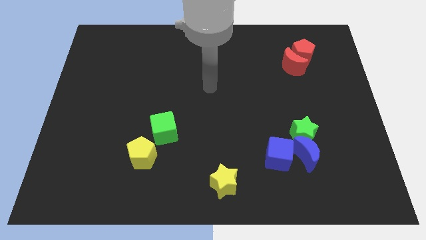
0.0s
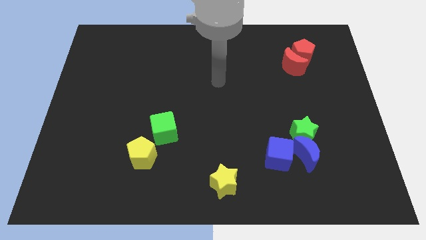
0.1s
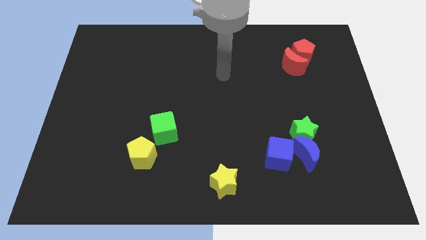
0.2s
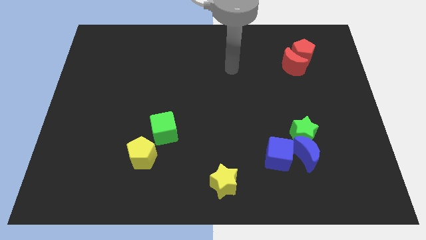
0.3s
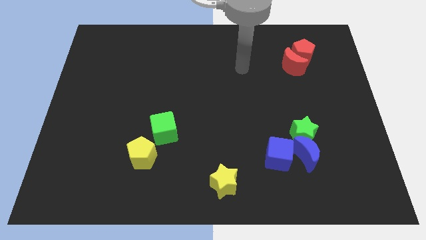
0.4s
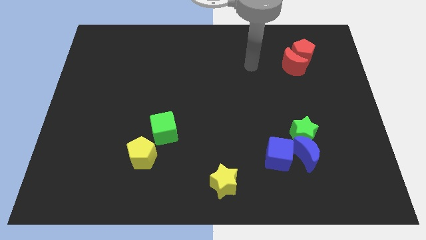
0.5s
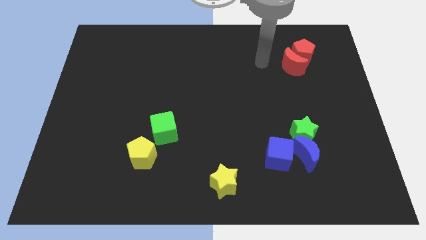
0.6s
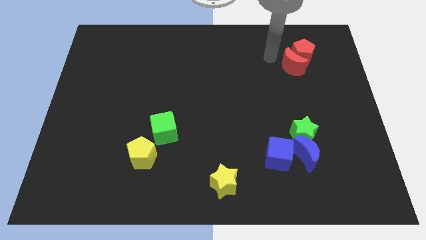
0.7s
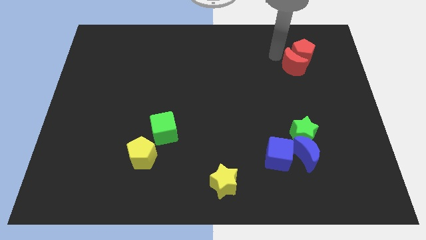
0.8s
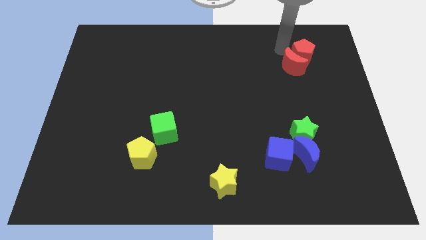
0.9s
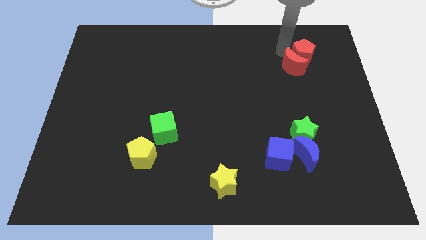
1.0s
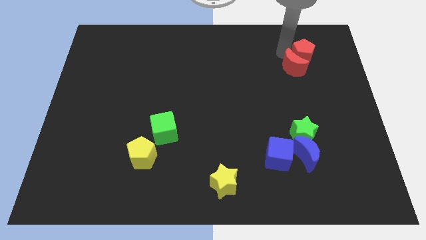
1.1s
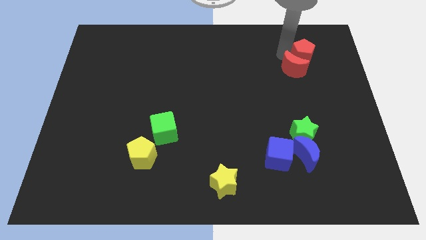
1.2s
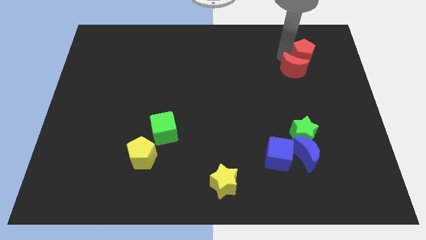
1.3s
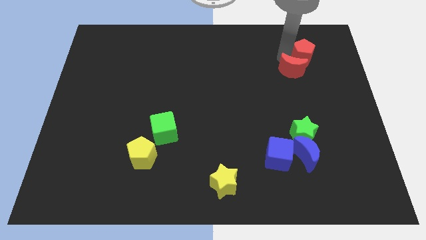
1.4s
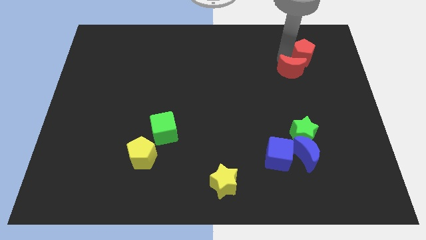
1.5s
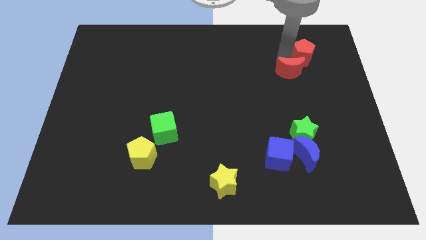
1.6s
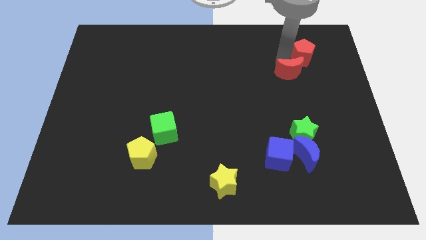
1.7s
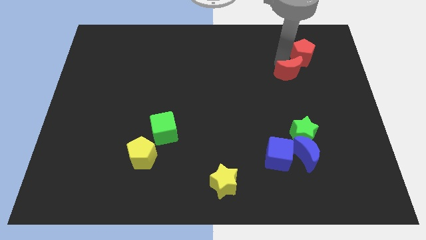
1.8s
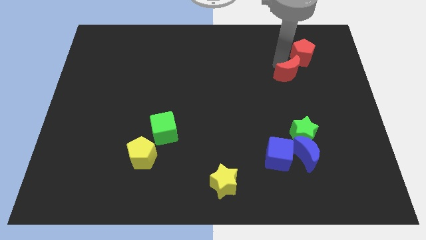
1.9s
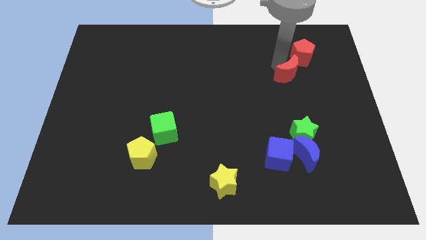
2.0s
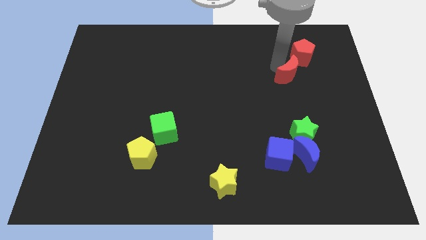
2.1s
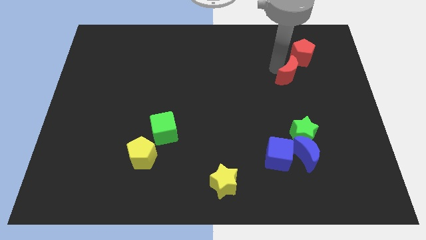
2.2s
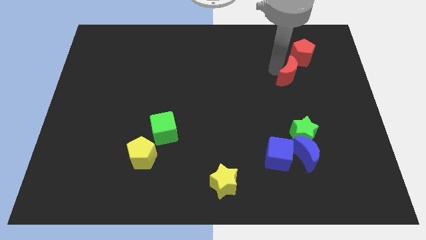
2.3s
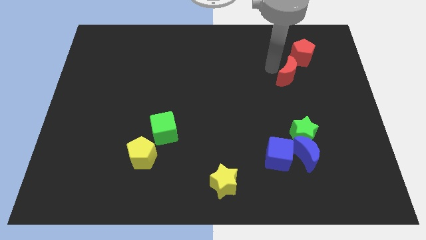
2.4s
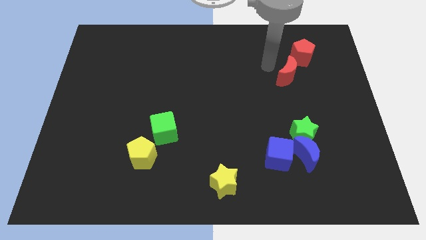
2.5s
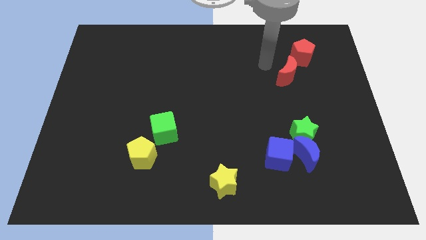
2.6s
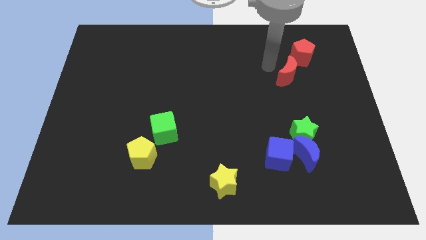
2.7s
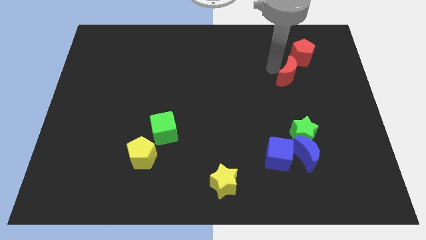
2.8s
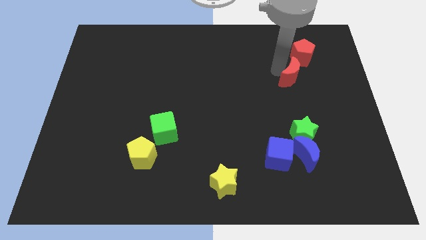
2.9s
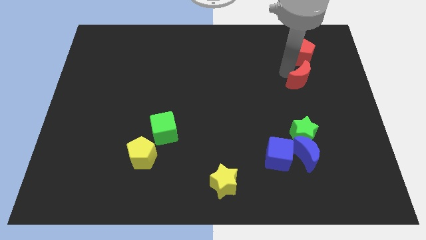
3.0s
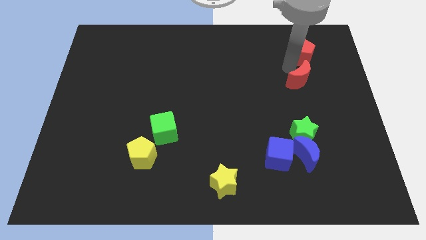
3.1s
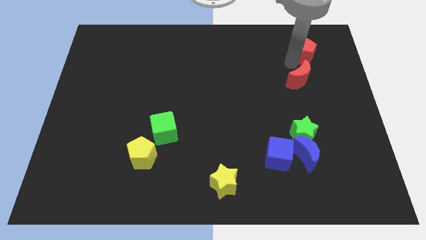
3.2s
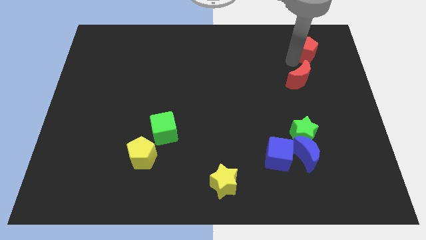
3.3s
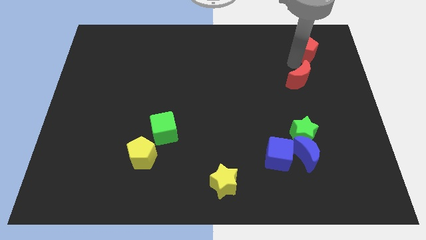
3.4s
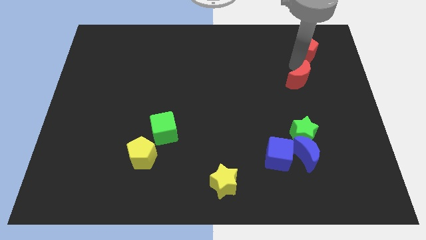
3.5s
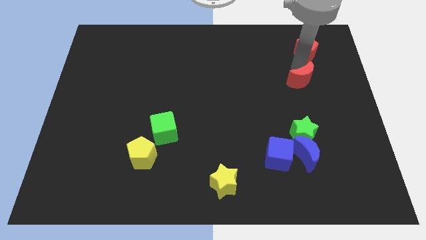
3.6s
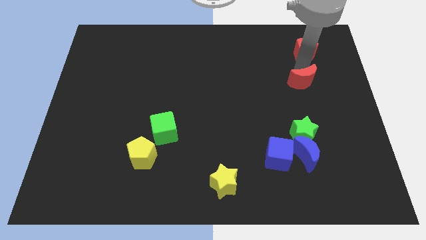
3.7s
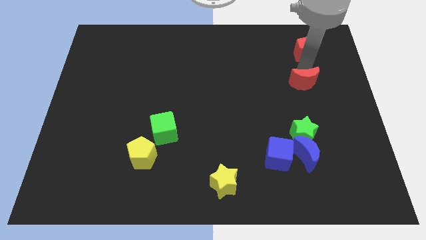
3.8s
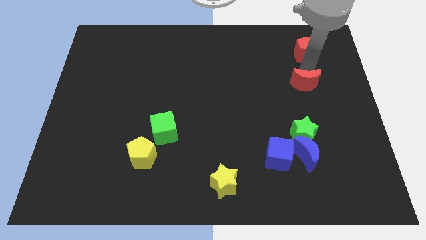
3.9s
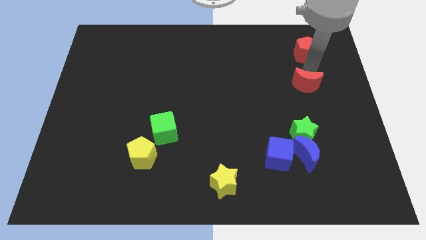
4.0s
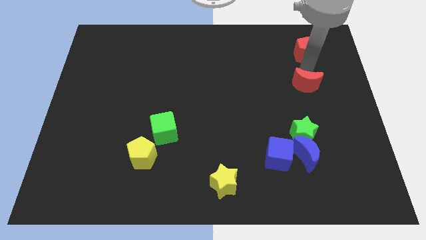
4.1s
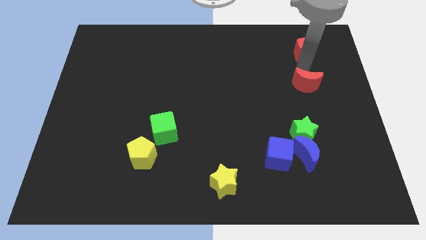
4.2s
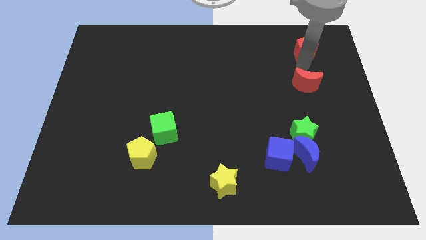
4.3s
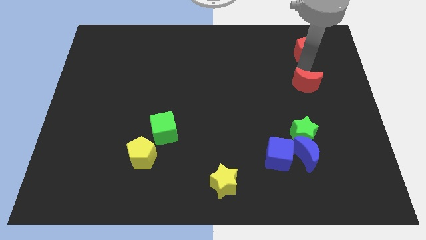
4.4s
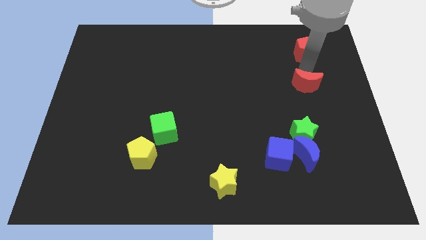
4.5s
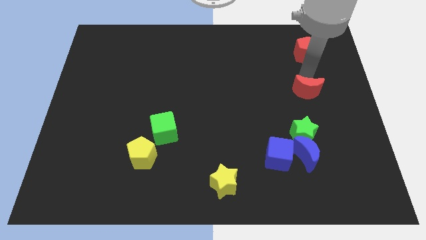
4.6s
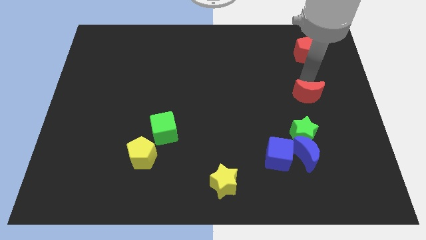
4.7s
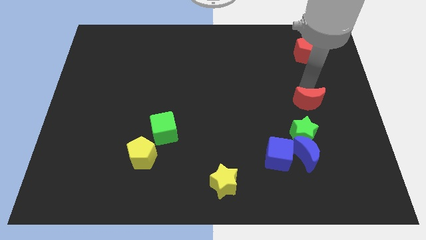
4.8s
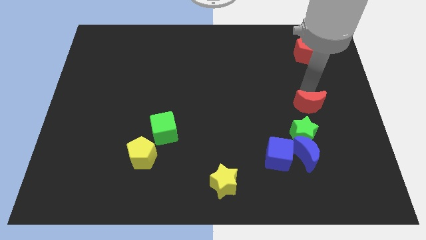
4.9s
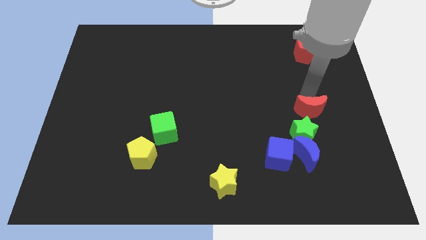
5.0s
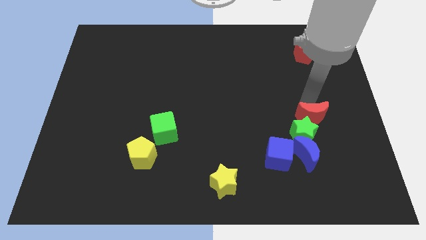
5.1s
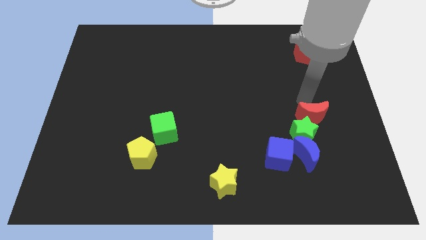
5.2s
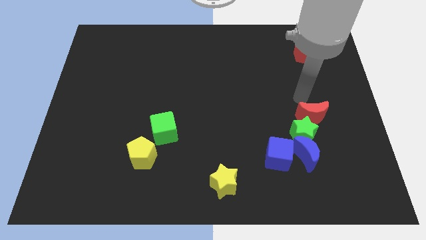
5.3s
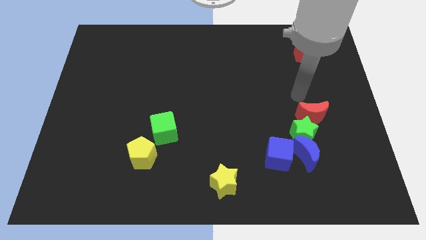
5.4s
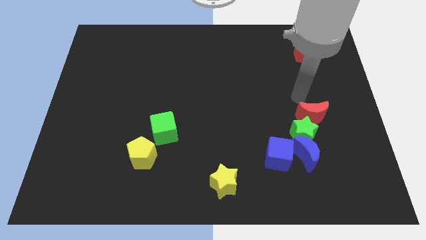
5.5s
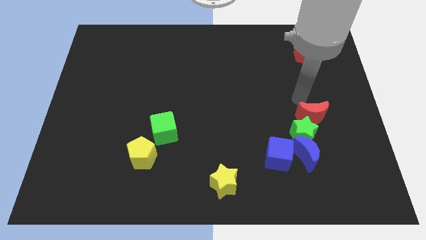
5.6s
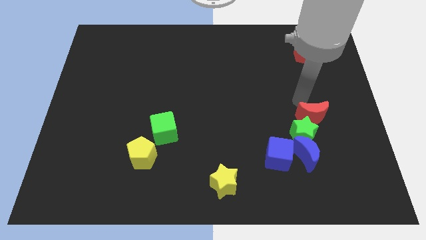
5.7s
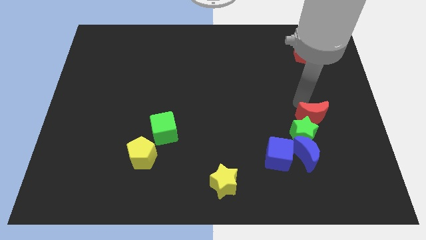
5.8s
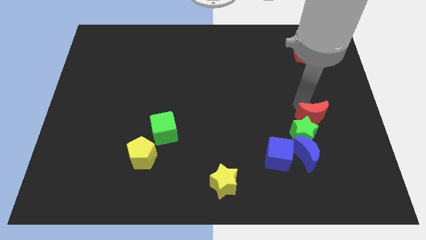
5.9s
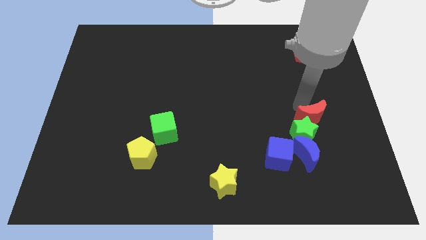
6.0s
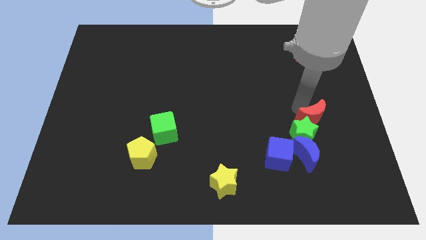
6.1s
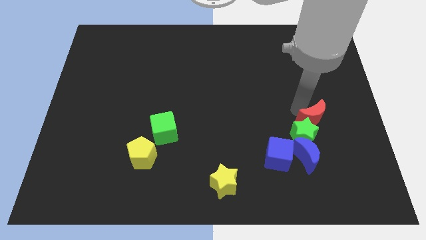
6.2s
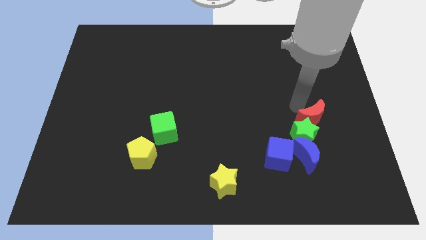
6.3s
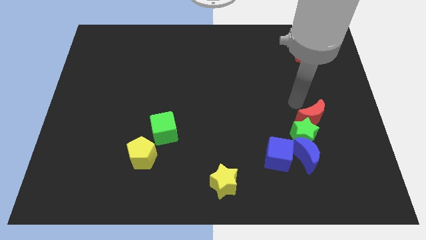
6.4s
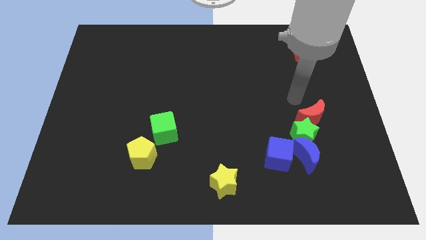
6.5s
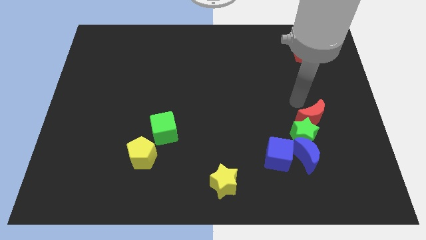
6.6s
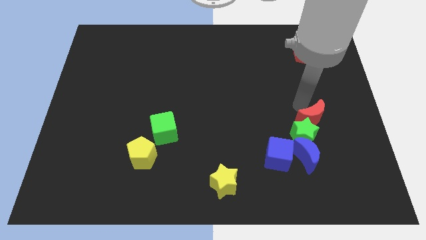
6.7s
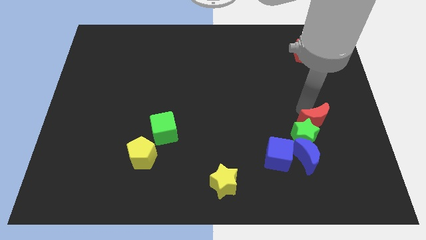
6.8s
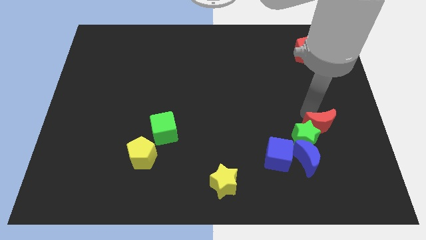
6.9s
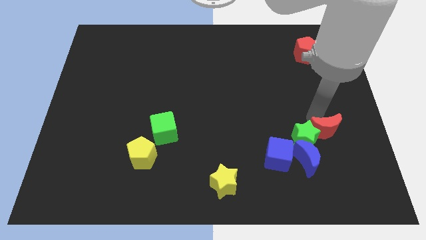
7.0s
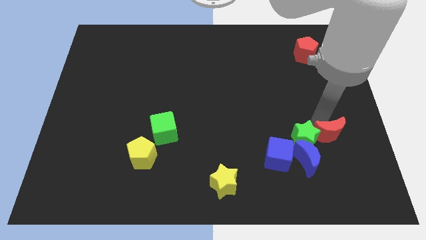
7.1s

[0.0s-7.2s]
push the red moon down

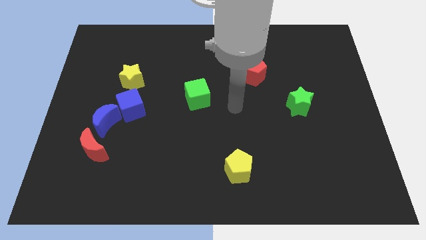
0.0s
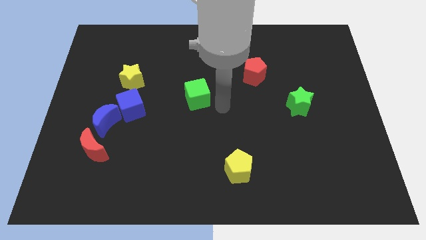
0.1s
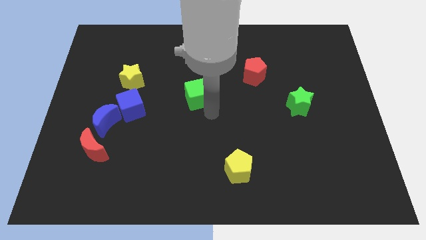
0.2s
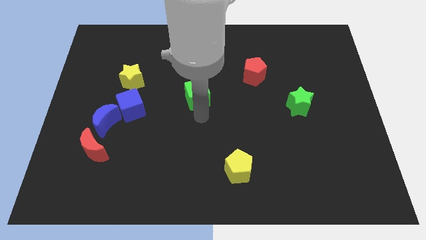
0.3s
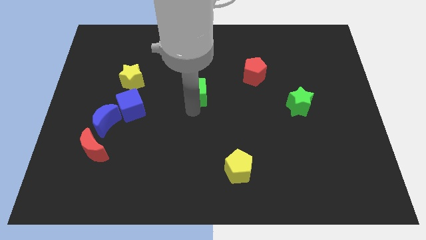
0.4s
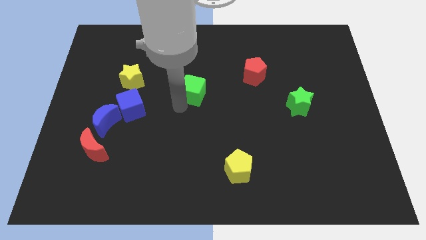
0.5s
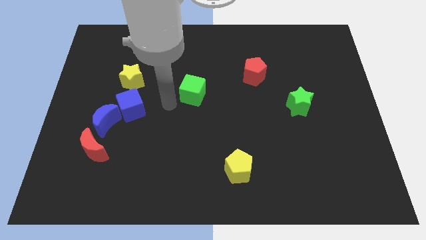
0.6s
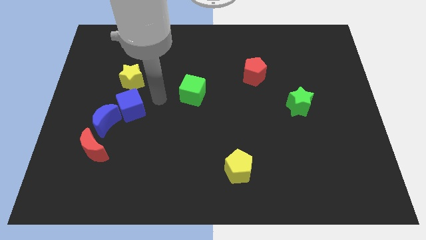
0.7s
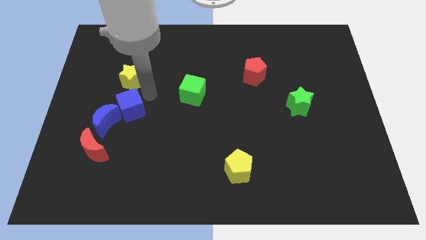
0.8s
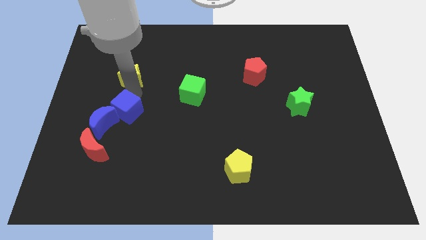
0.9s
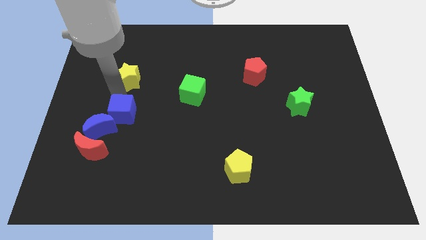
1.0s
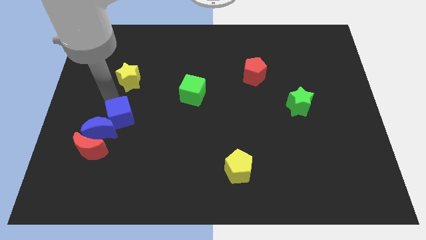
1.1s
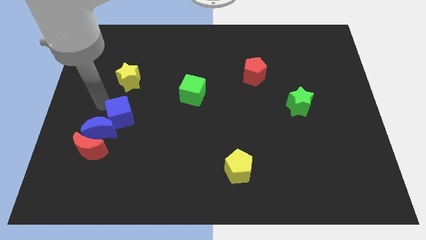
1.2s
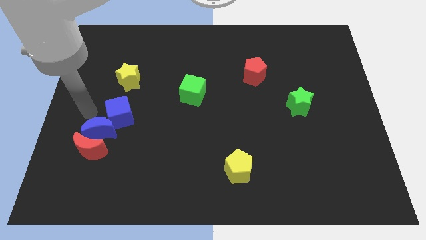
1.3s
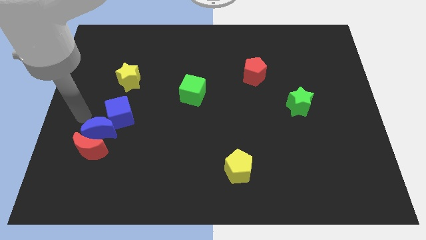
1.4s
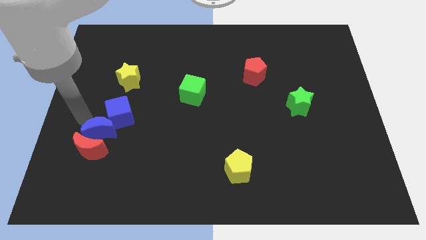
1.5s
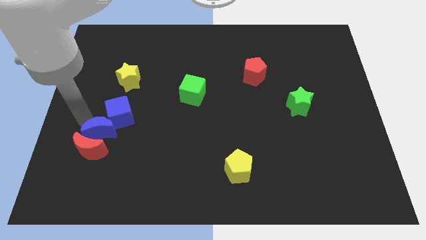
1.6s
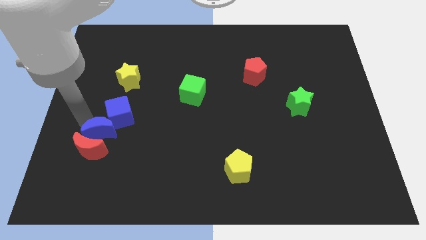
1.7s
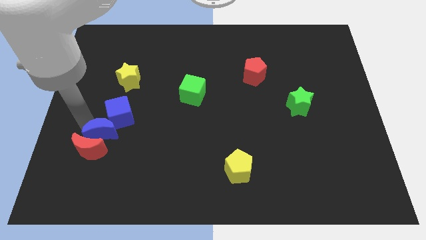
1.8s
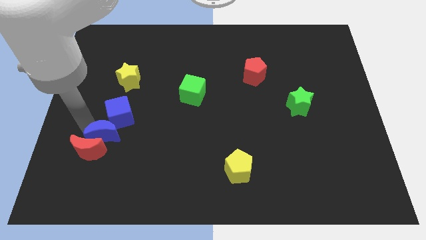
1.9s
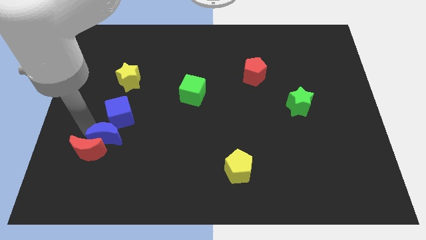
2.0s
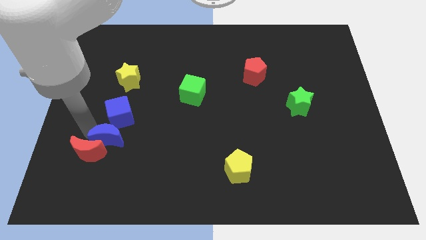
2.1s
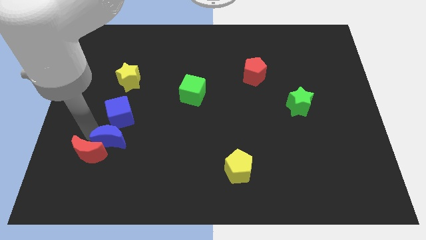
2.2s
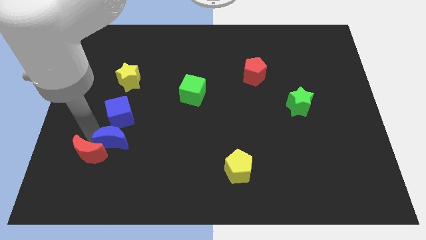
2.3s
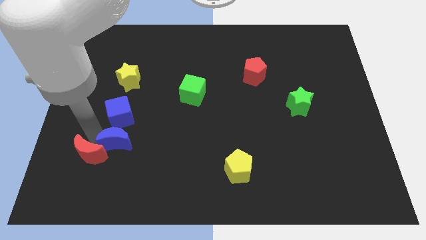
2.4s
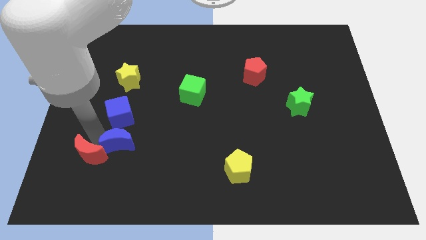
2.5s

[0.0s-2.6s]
push the blue moon a little down and right diagonally
